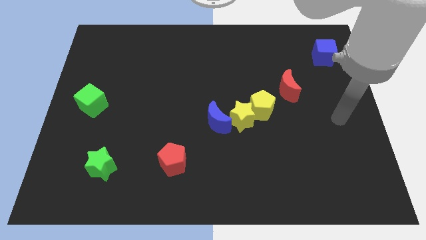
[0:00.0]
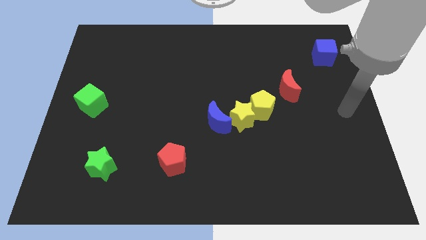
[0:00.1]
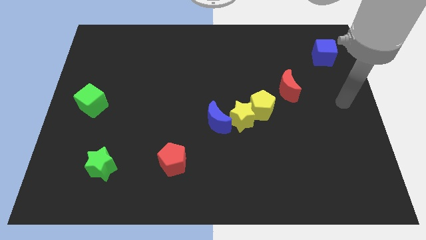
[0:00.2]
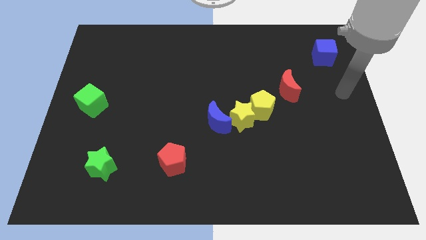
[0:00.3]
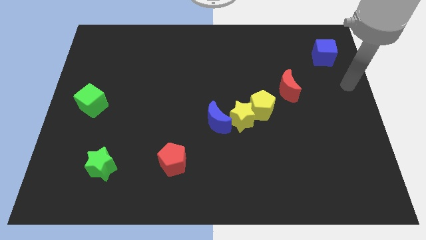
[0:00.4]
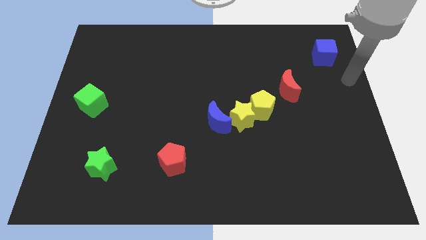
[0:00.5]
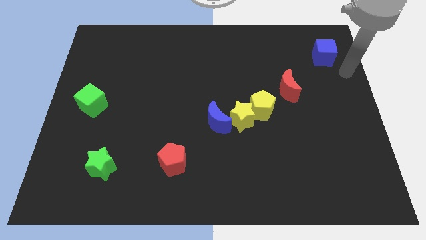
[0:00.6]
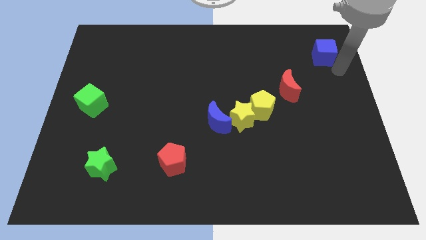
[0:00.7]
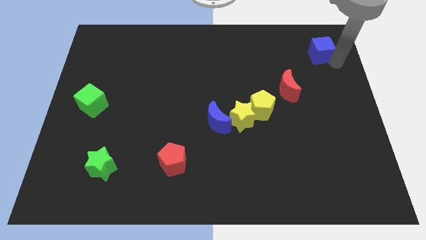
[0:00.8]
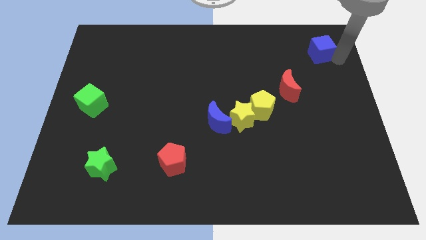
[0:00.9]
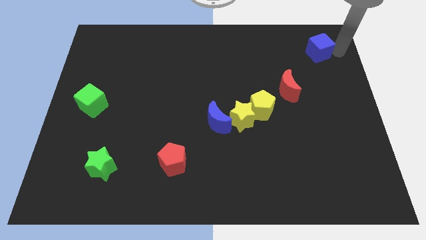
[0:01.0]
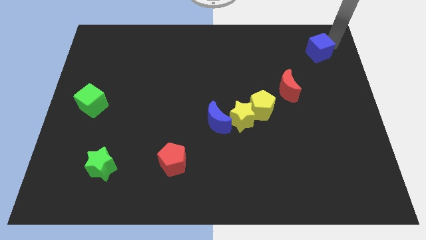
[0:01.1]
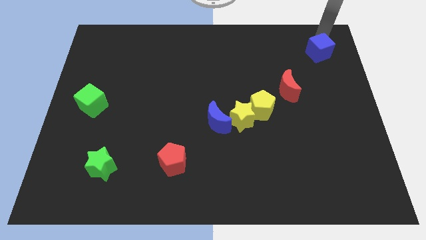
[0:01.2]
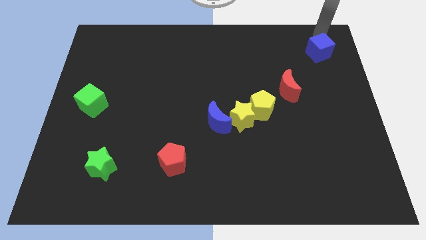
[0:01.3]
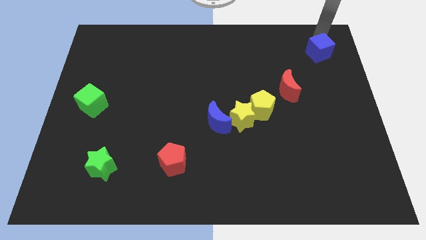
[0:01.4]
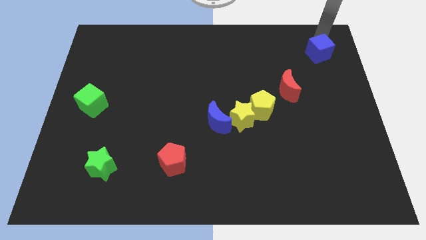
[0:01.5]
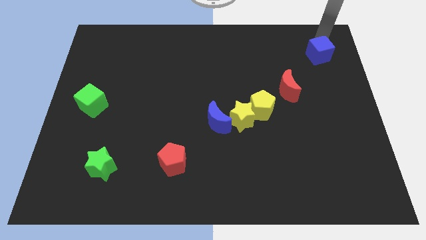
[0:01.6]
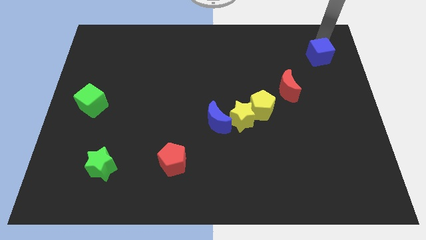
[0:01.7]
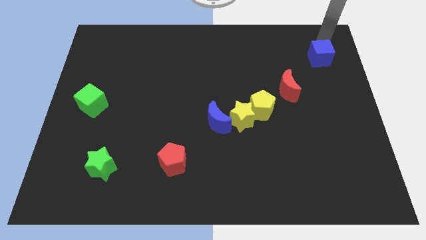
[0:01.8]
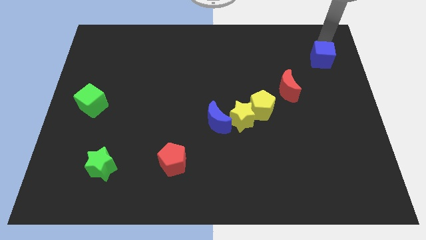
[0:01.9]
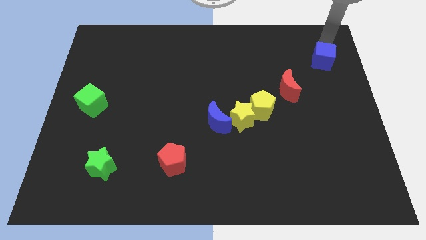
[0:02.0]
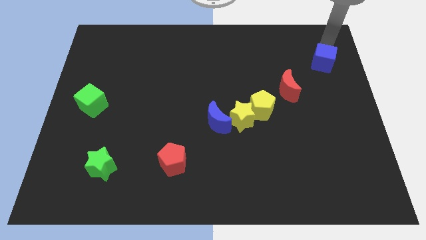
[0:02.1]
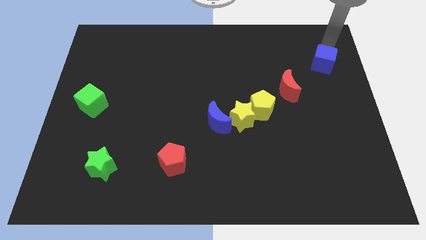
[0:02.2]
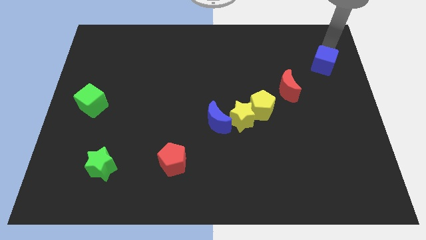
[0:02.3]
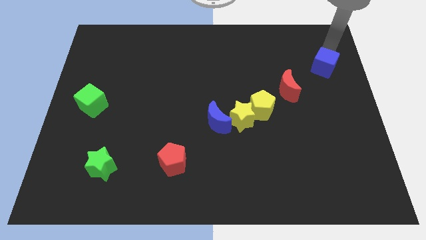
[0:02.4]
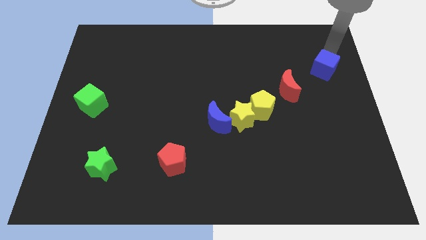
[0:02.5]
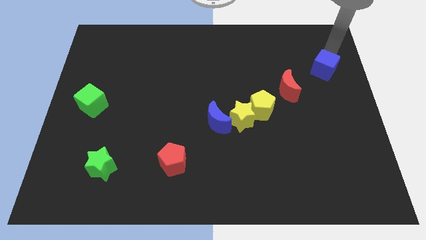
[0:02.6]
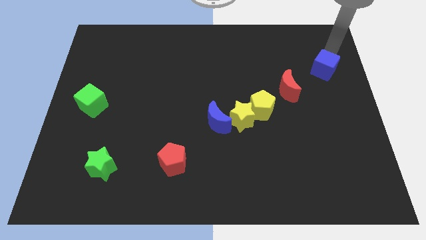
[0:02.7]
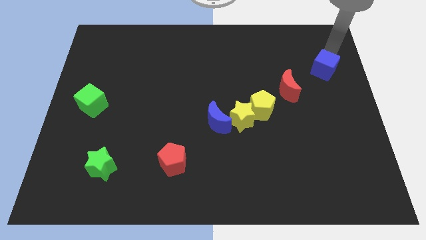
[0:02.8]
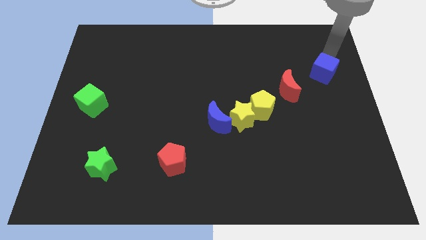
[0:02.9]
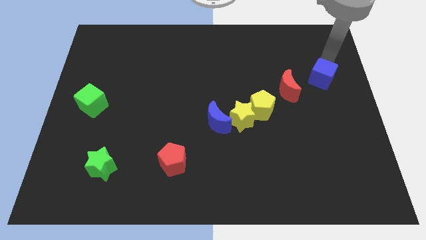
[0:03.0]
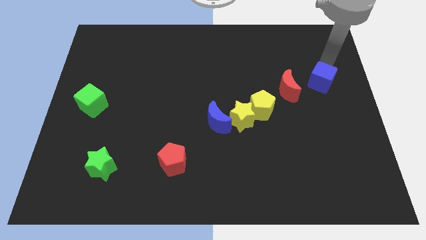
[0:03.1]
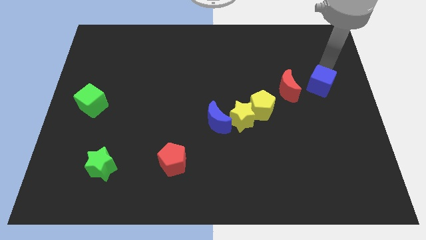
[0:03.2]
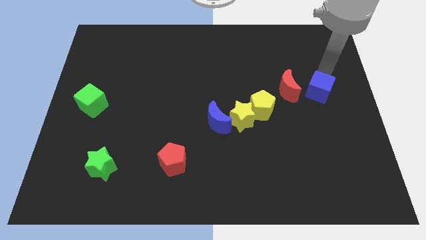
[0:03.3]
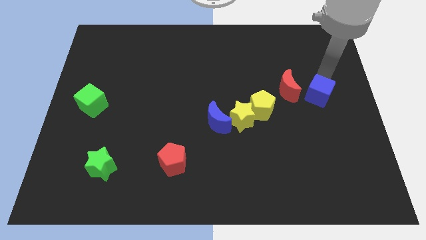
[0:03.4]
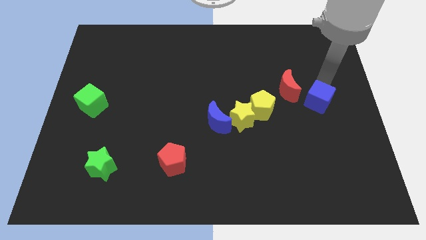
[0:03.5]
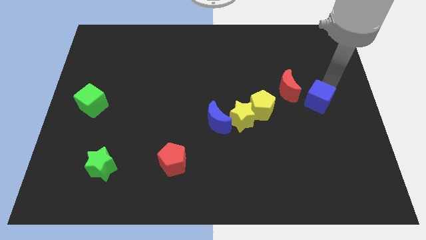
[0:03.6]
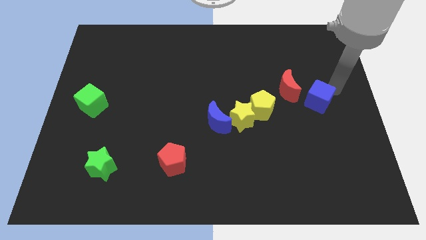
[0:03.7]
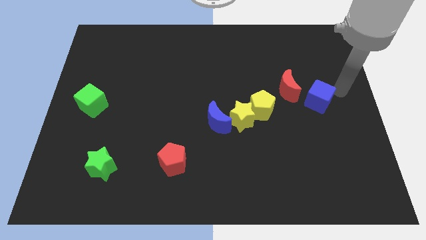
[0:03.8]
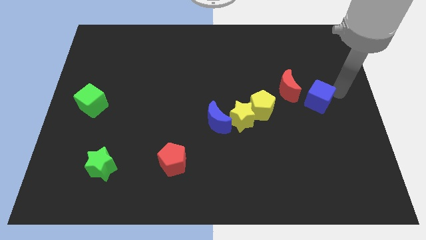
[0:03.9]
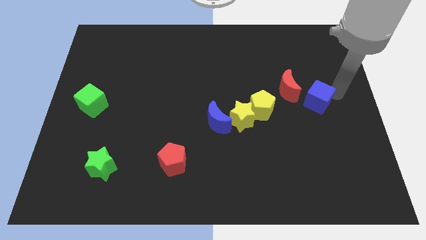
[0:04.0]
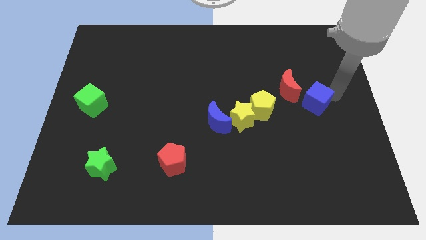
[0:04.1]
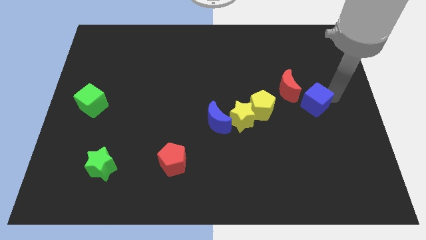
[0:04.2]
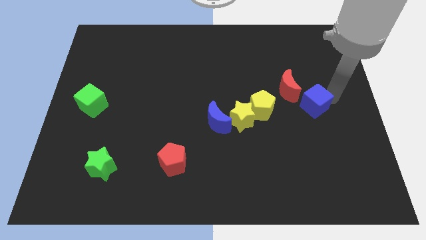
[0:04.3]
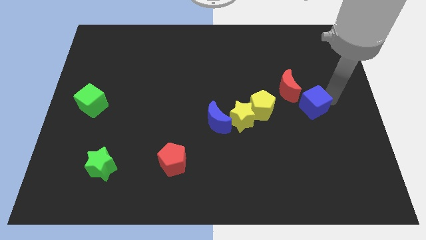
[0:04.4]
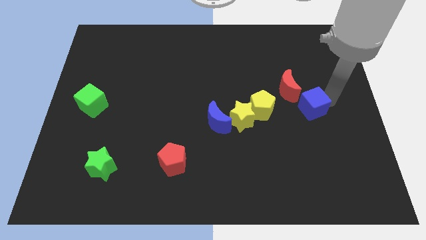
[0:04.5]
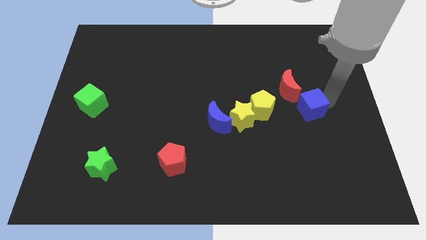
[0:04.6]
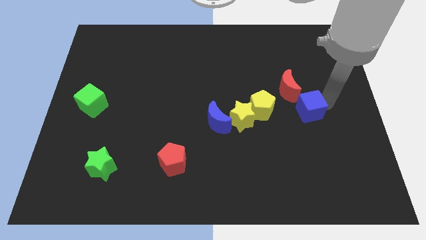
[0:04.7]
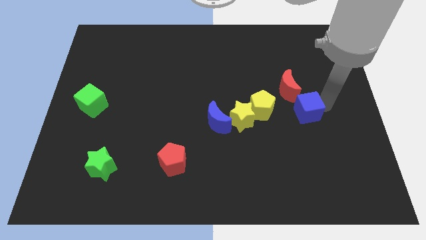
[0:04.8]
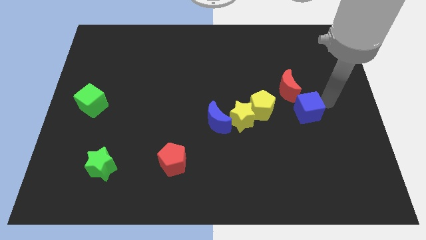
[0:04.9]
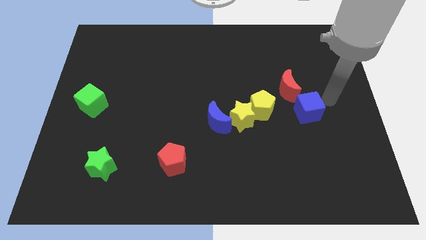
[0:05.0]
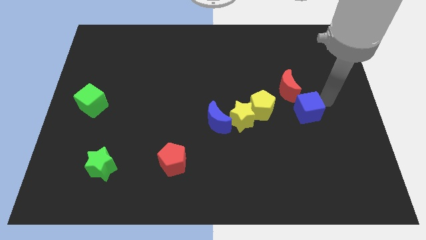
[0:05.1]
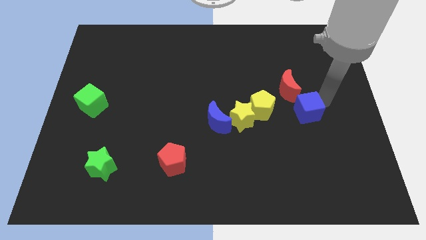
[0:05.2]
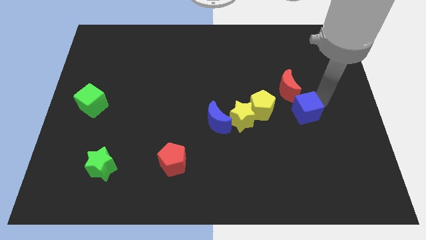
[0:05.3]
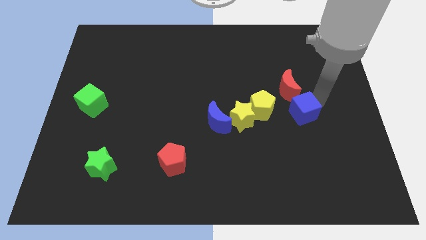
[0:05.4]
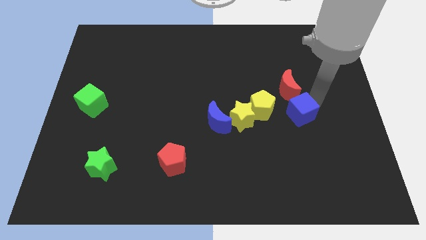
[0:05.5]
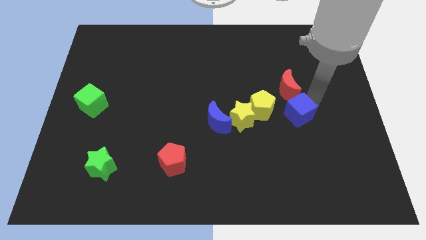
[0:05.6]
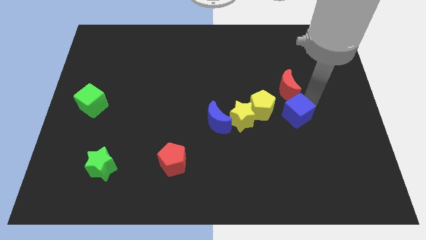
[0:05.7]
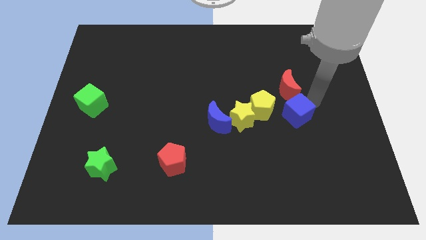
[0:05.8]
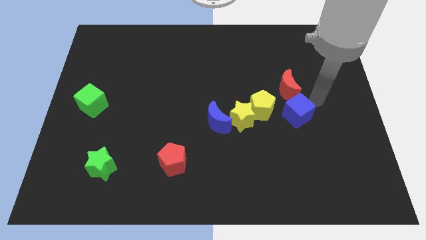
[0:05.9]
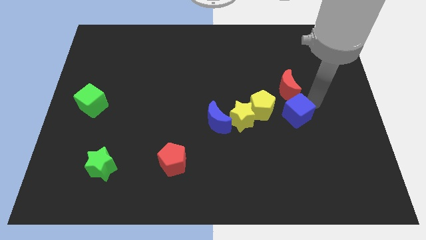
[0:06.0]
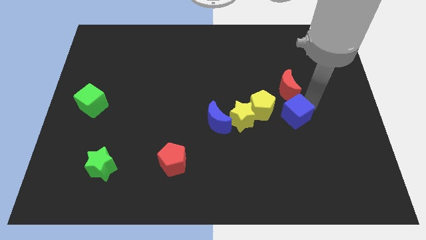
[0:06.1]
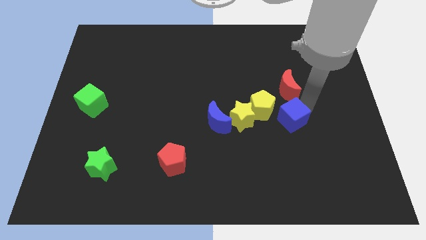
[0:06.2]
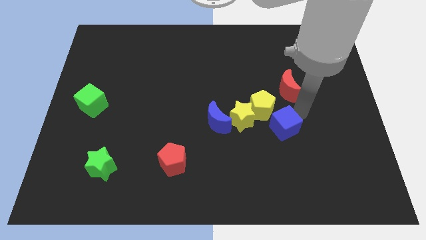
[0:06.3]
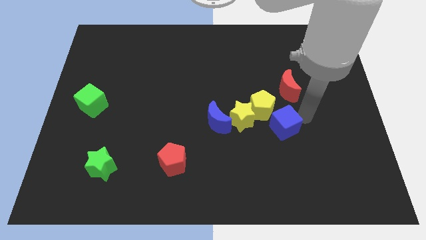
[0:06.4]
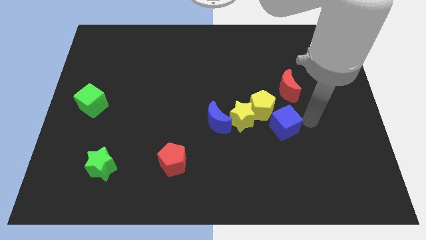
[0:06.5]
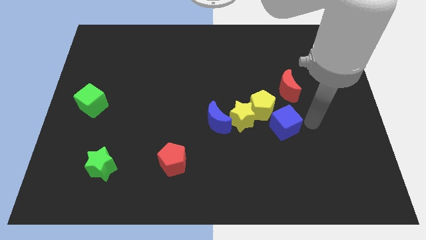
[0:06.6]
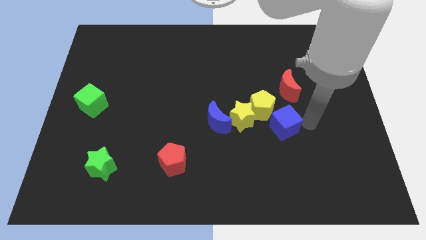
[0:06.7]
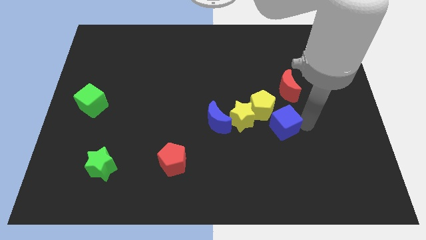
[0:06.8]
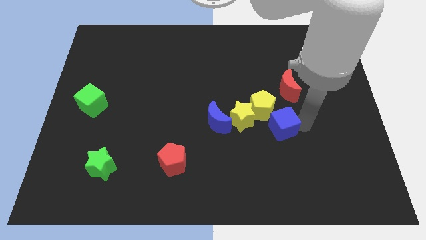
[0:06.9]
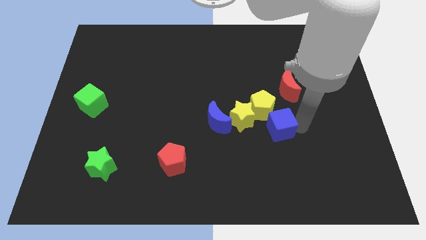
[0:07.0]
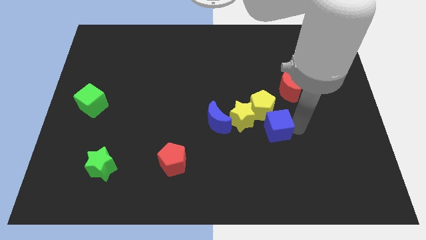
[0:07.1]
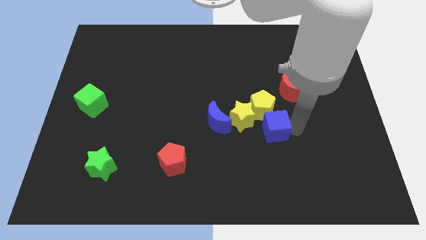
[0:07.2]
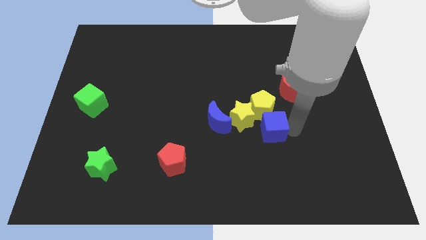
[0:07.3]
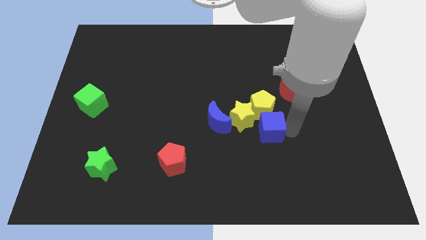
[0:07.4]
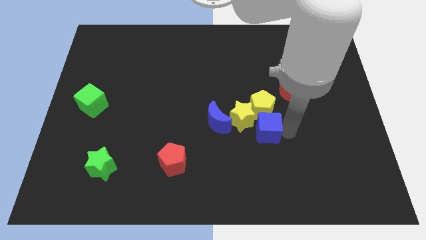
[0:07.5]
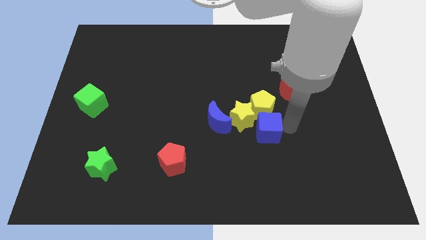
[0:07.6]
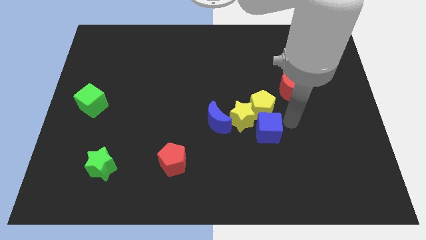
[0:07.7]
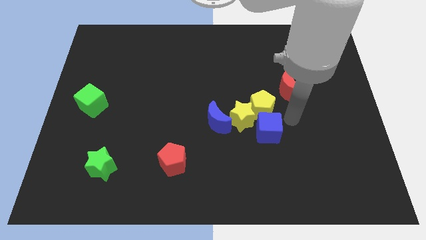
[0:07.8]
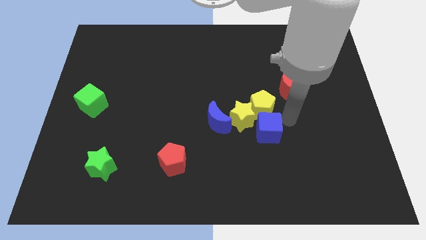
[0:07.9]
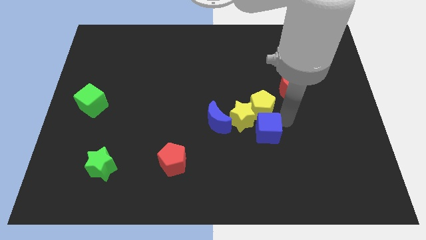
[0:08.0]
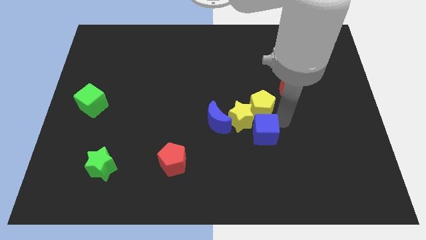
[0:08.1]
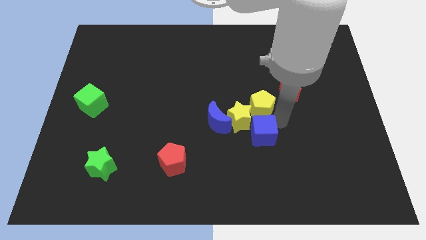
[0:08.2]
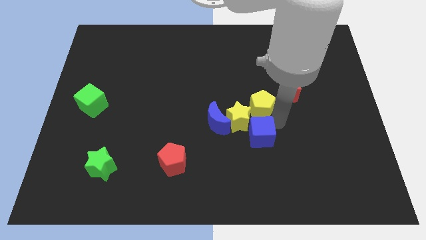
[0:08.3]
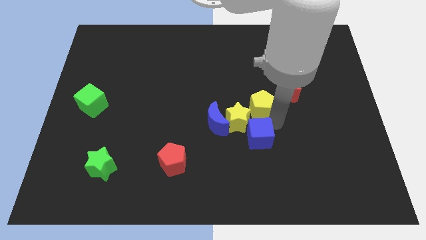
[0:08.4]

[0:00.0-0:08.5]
push the blue cube to the bottom side of the yellow star
